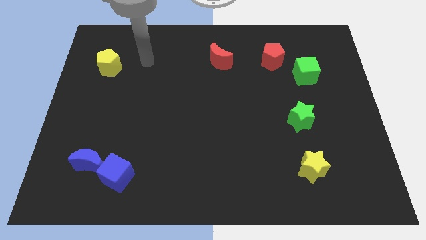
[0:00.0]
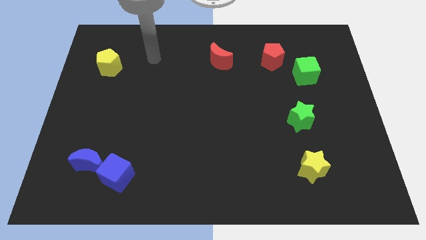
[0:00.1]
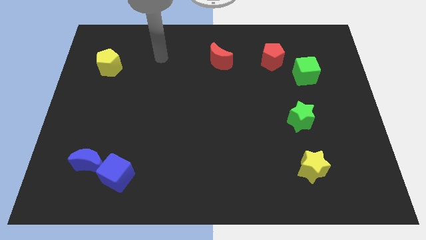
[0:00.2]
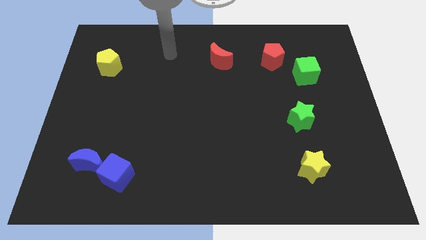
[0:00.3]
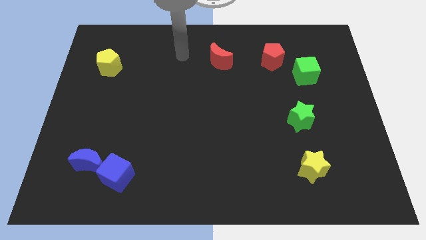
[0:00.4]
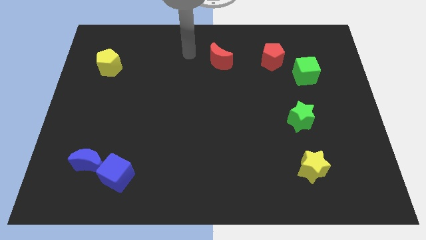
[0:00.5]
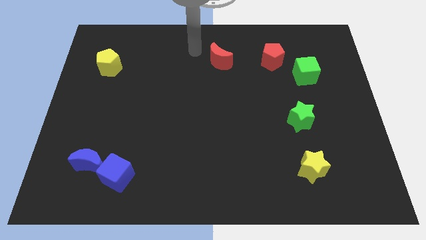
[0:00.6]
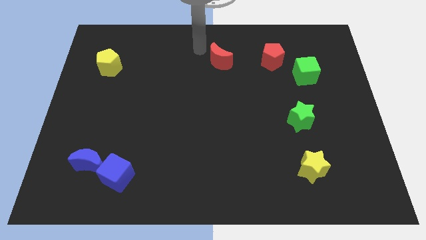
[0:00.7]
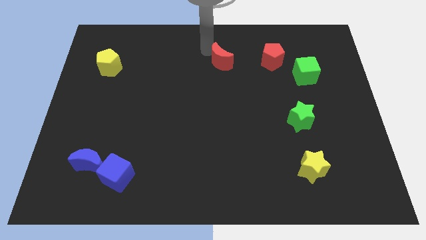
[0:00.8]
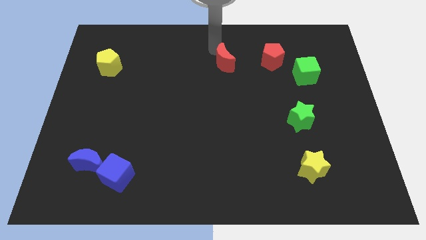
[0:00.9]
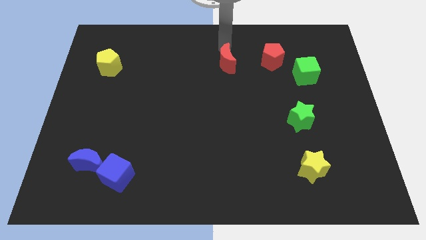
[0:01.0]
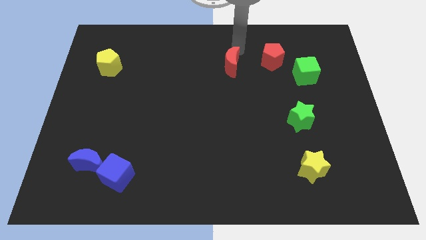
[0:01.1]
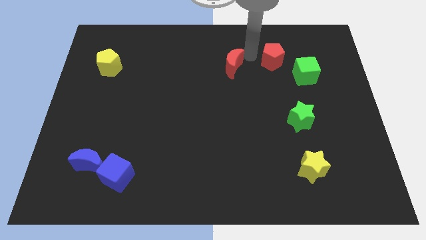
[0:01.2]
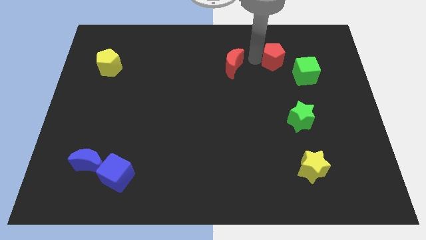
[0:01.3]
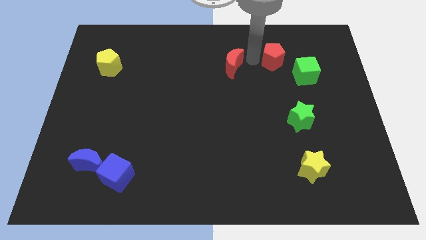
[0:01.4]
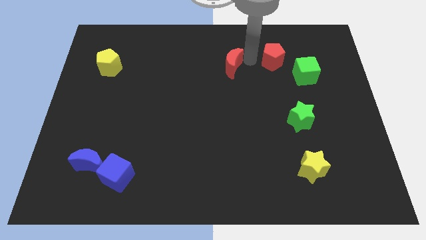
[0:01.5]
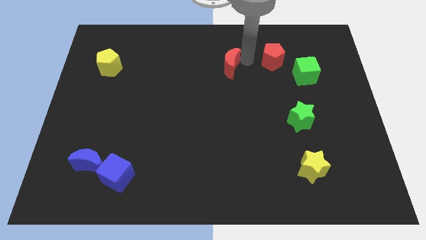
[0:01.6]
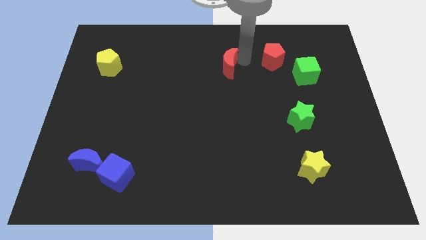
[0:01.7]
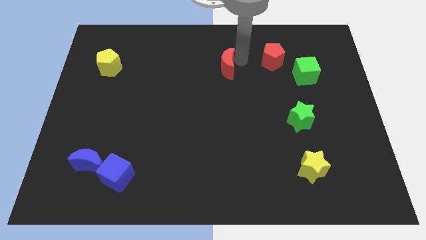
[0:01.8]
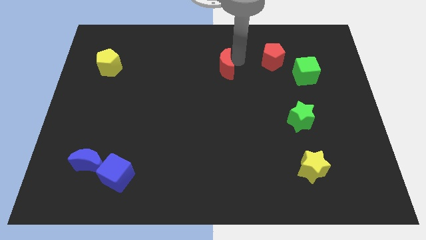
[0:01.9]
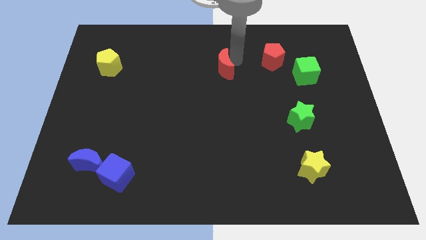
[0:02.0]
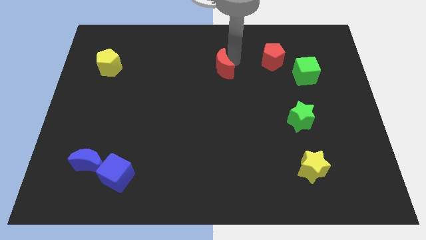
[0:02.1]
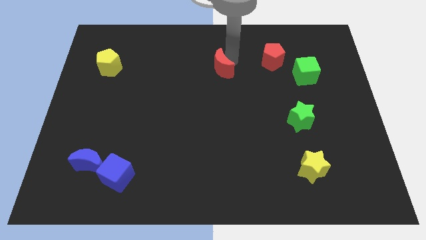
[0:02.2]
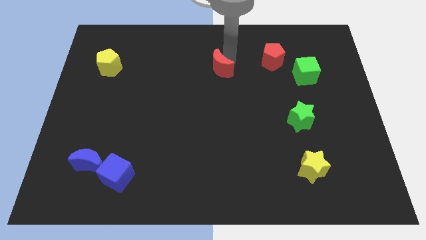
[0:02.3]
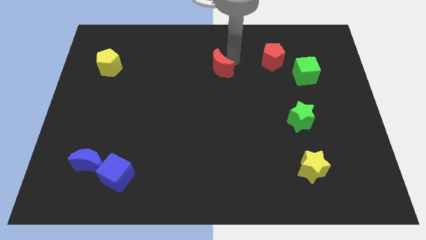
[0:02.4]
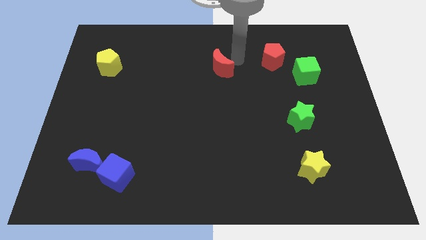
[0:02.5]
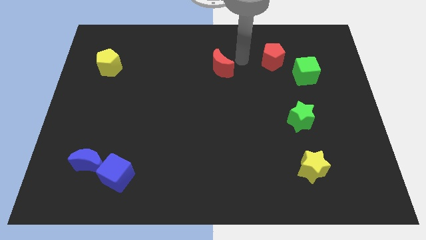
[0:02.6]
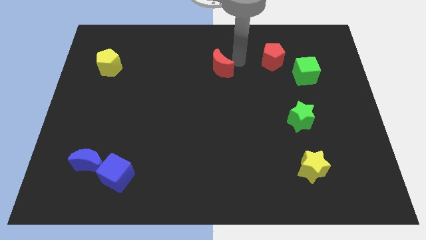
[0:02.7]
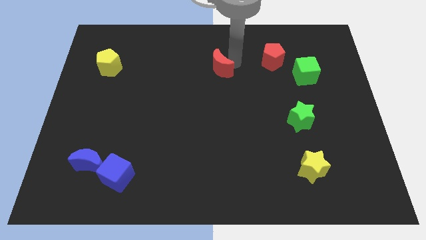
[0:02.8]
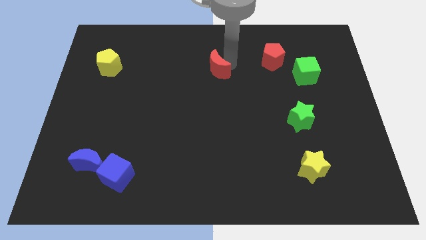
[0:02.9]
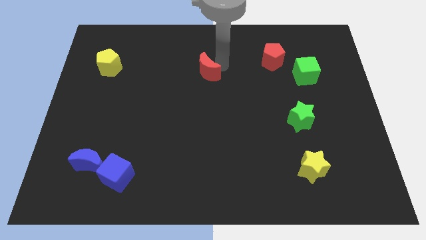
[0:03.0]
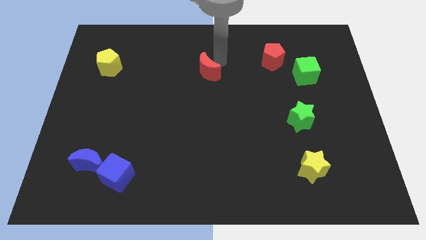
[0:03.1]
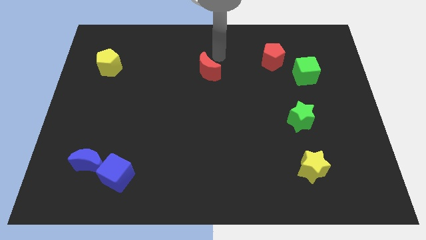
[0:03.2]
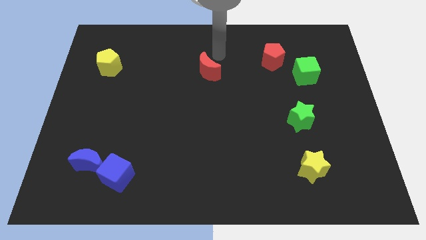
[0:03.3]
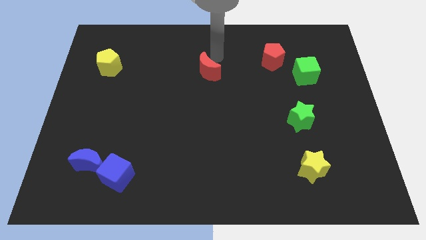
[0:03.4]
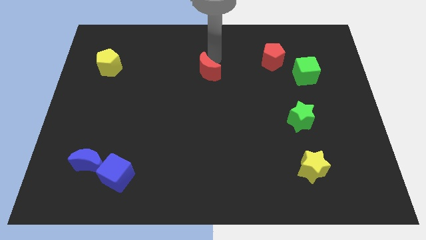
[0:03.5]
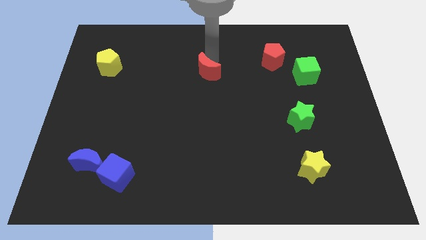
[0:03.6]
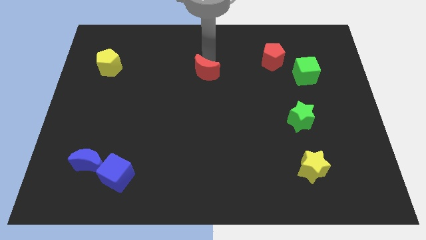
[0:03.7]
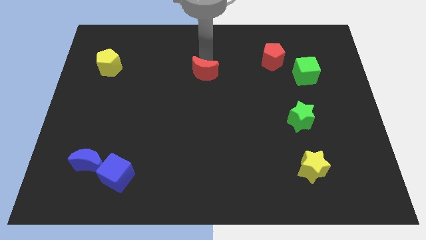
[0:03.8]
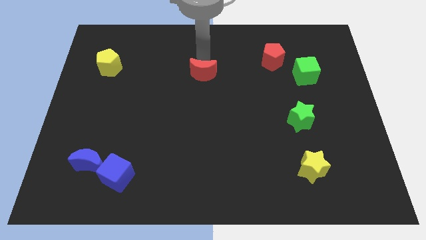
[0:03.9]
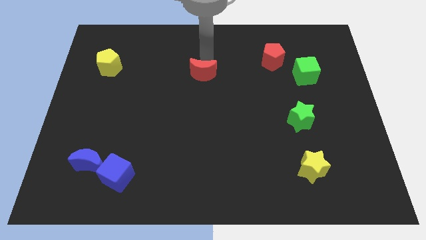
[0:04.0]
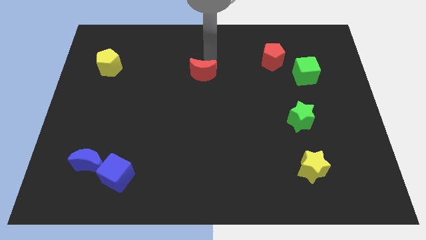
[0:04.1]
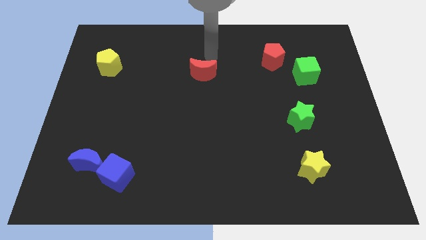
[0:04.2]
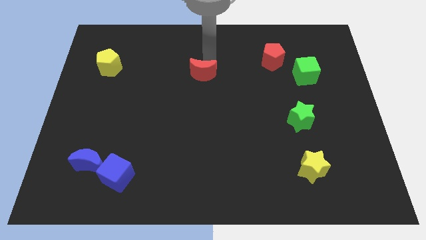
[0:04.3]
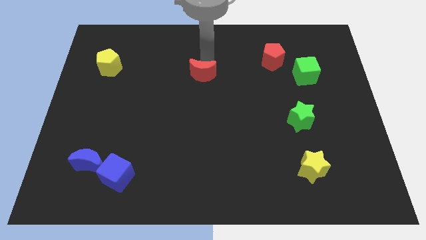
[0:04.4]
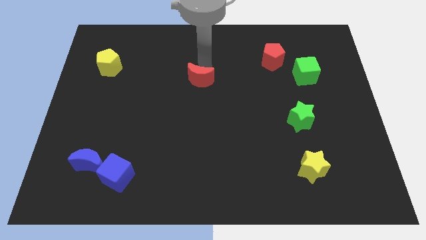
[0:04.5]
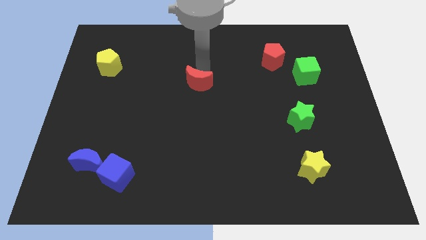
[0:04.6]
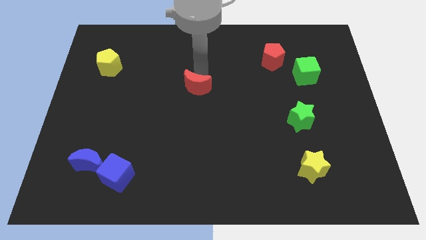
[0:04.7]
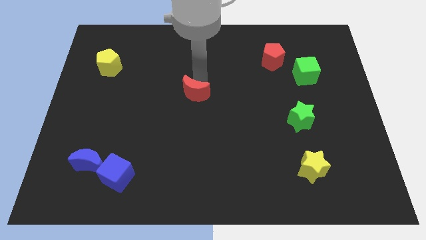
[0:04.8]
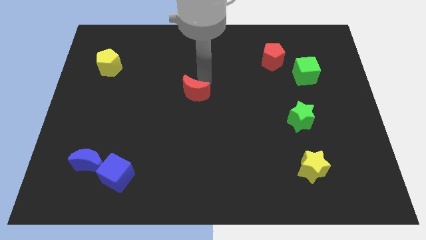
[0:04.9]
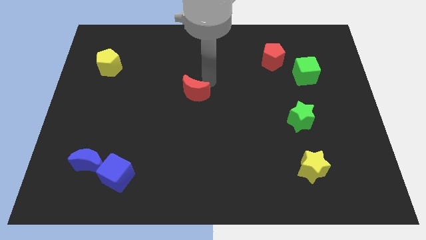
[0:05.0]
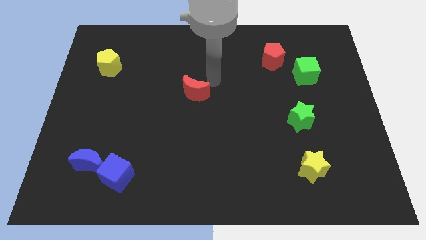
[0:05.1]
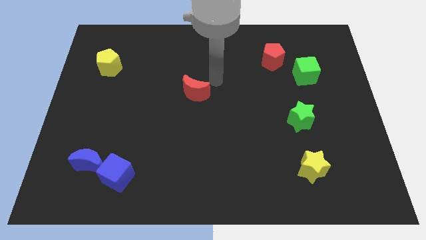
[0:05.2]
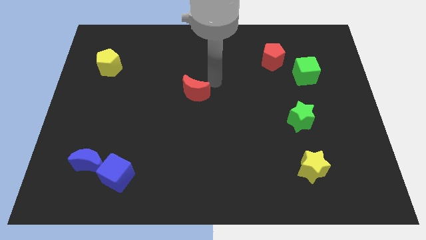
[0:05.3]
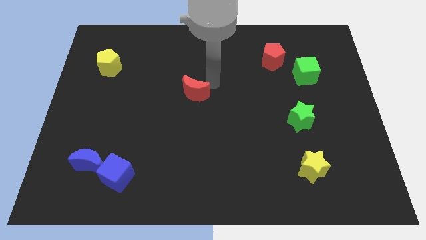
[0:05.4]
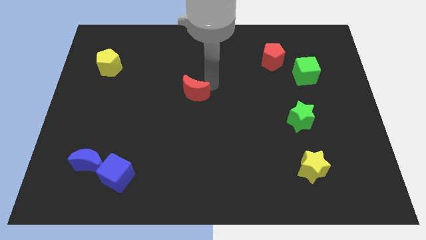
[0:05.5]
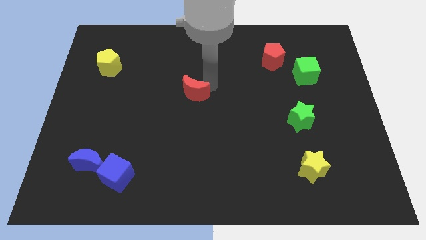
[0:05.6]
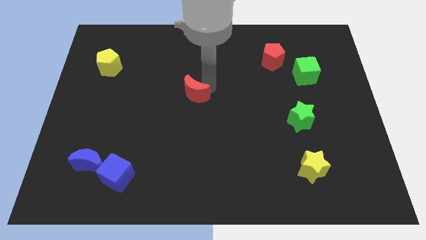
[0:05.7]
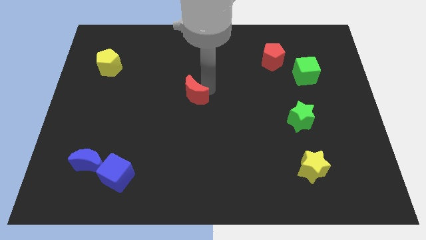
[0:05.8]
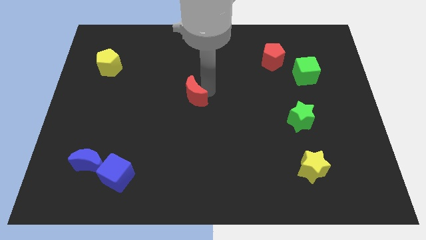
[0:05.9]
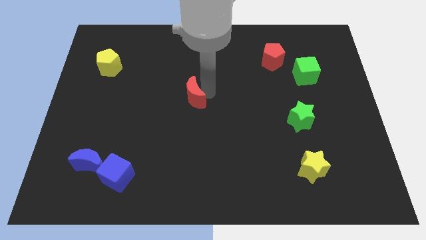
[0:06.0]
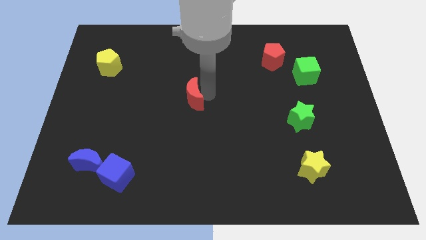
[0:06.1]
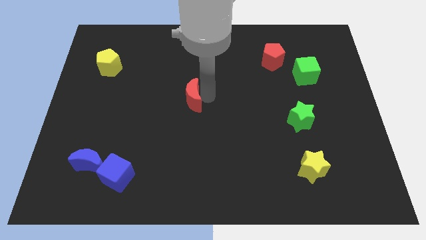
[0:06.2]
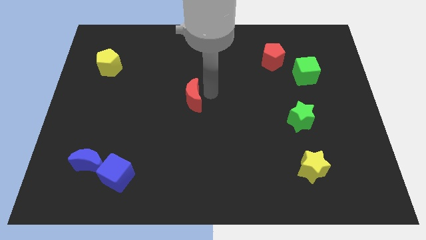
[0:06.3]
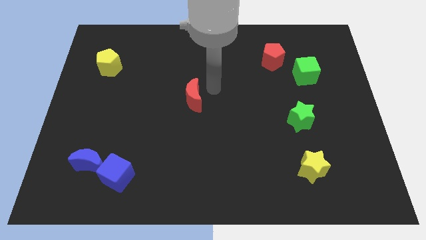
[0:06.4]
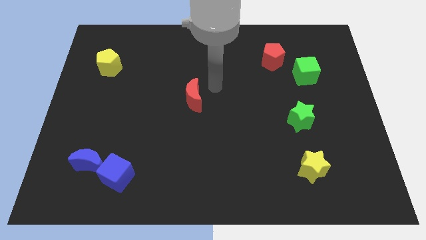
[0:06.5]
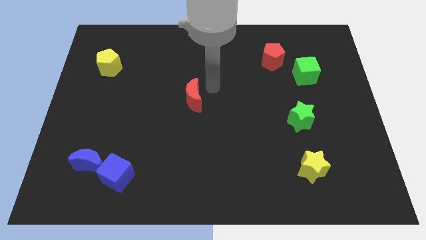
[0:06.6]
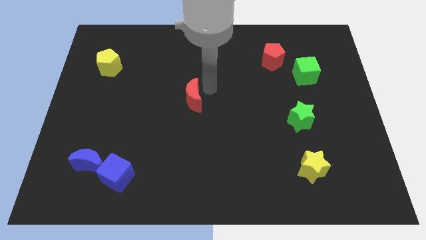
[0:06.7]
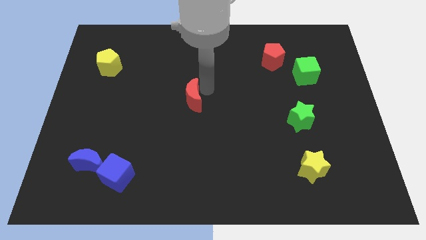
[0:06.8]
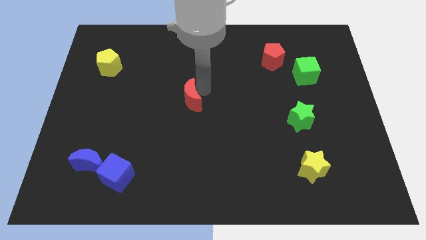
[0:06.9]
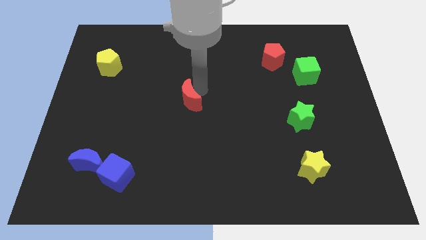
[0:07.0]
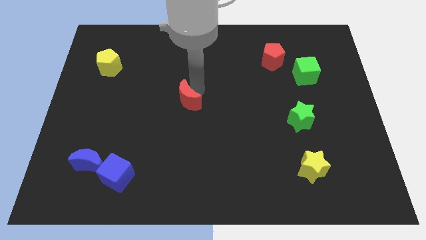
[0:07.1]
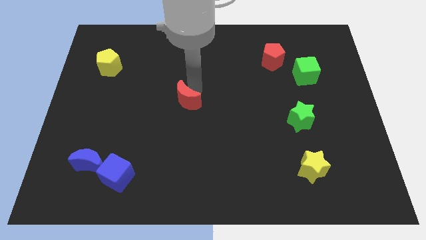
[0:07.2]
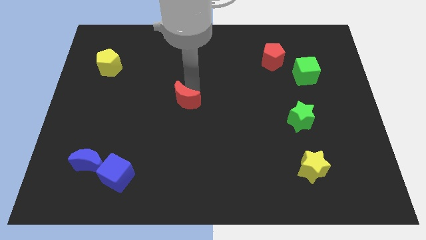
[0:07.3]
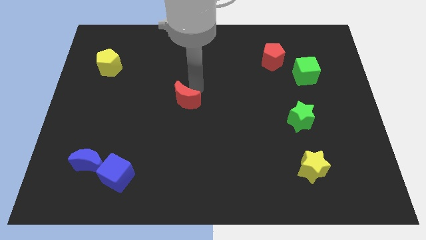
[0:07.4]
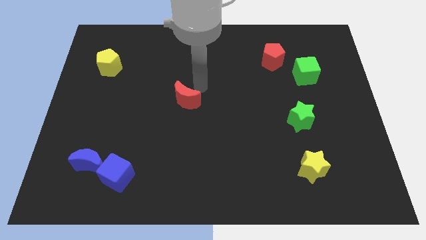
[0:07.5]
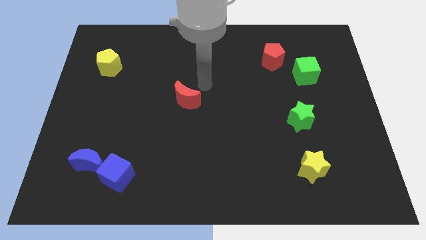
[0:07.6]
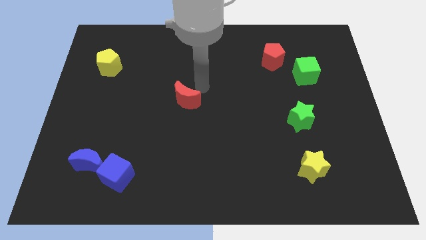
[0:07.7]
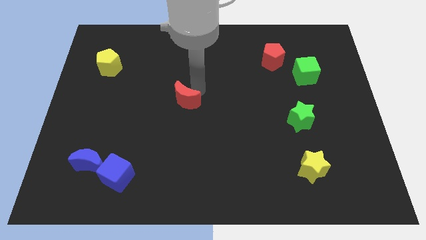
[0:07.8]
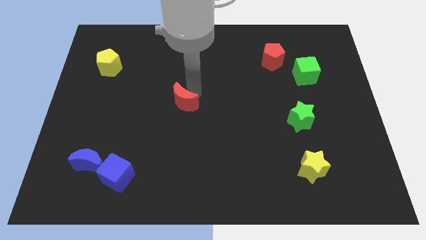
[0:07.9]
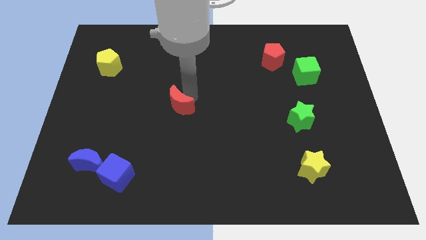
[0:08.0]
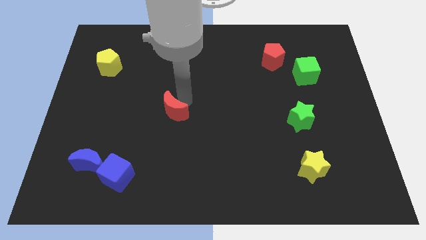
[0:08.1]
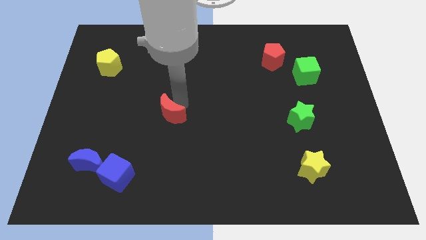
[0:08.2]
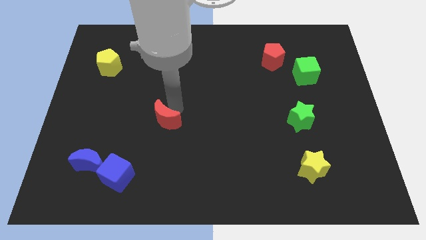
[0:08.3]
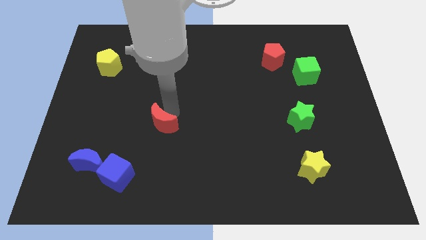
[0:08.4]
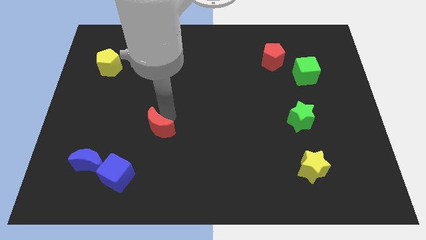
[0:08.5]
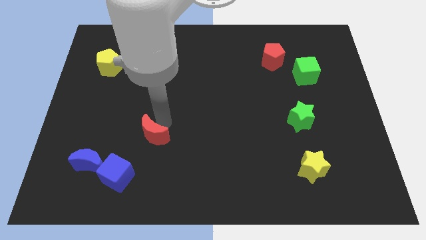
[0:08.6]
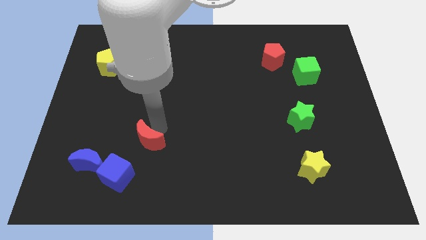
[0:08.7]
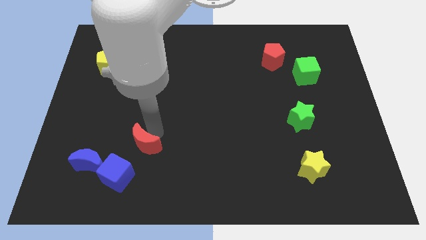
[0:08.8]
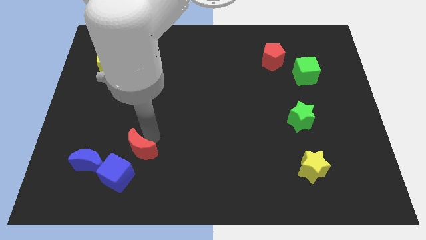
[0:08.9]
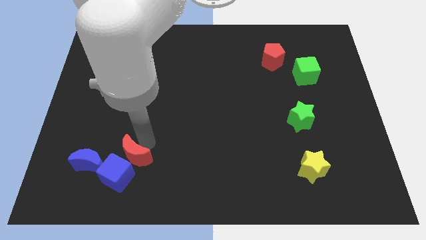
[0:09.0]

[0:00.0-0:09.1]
move the red moon next to the blue cube
